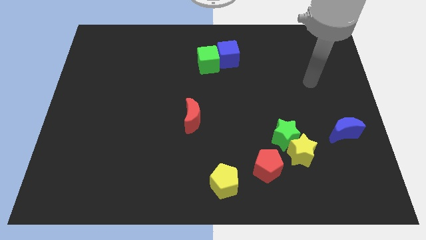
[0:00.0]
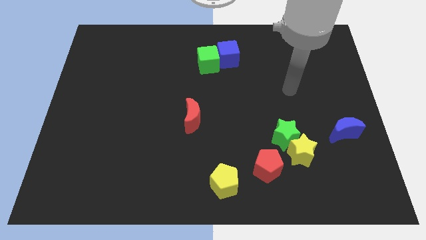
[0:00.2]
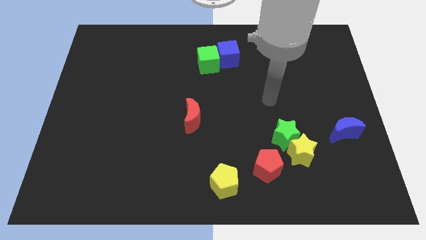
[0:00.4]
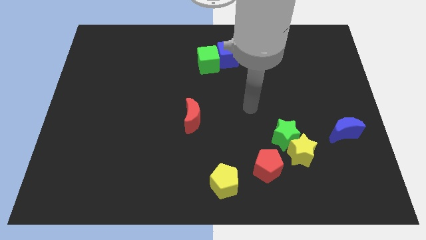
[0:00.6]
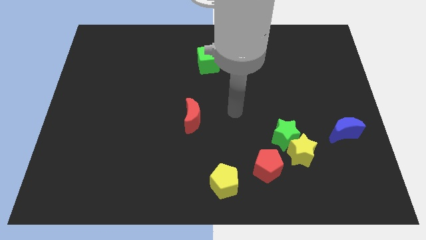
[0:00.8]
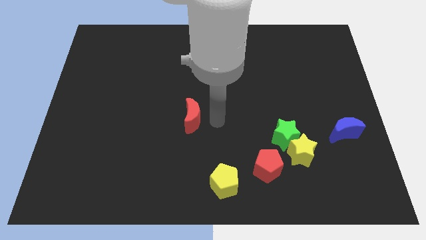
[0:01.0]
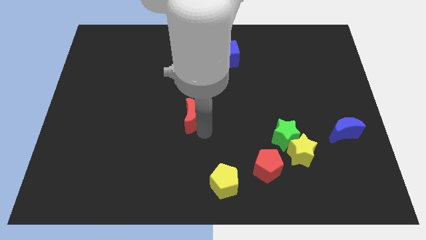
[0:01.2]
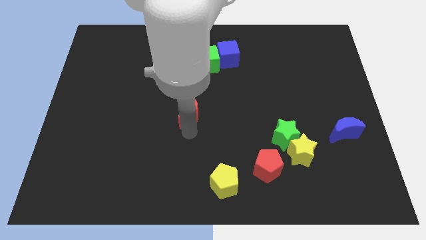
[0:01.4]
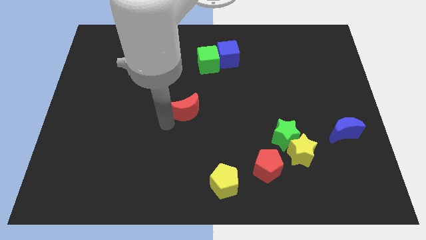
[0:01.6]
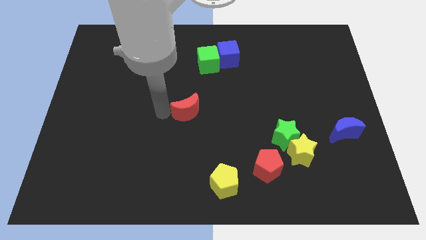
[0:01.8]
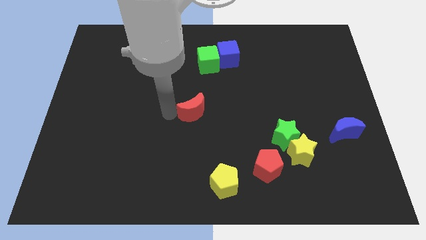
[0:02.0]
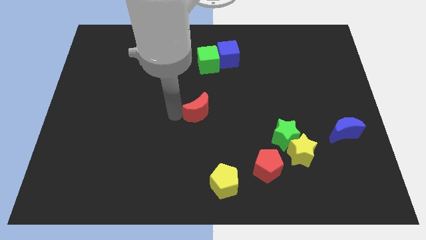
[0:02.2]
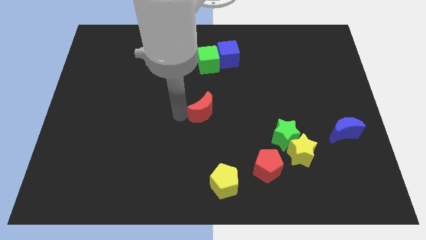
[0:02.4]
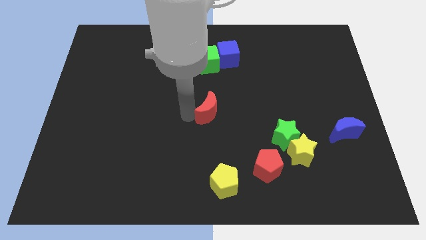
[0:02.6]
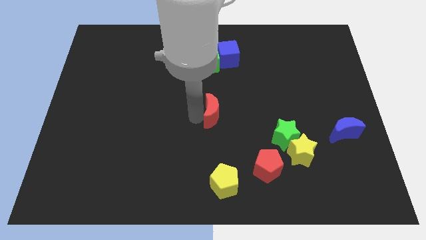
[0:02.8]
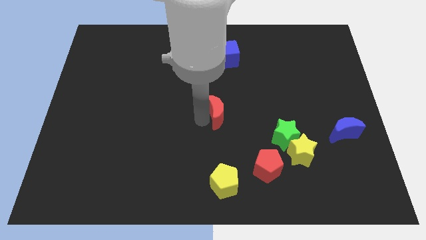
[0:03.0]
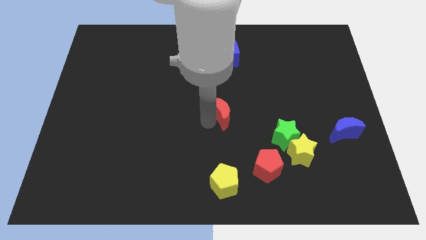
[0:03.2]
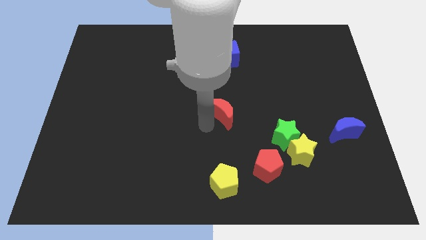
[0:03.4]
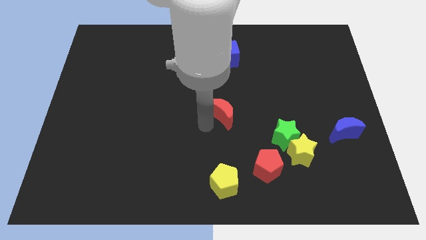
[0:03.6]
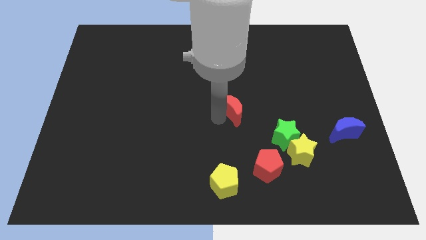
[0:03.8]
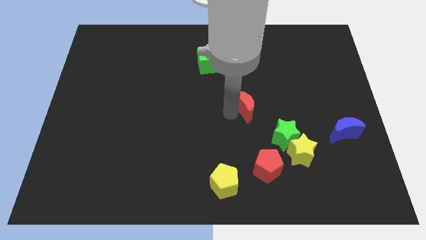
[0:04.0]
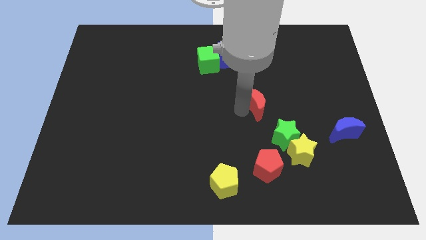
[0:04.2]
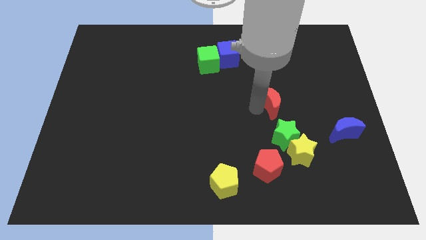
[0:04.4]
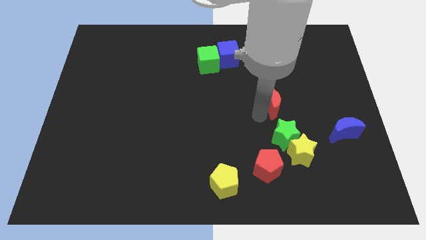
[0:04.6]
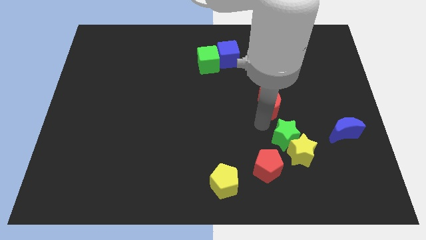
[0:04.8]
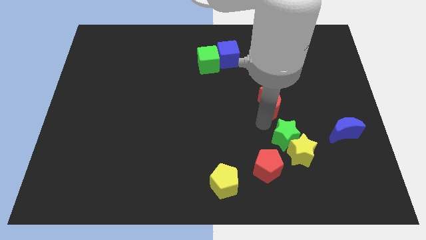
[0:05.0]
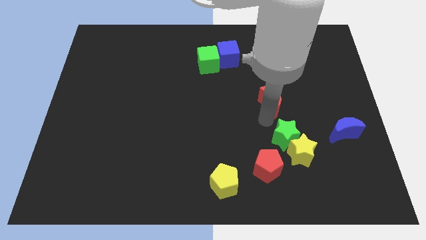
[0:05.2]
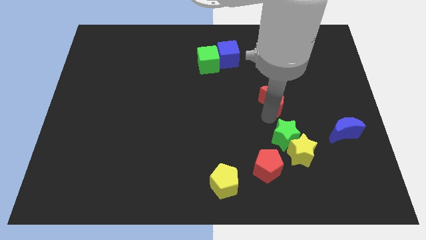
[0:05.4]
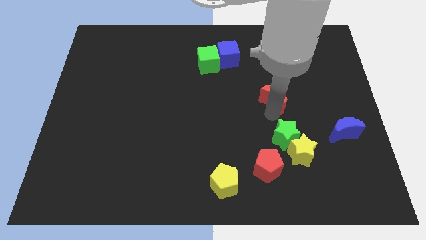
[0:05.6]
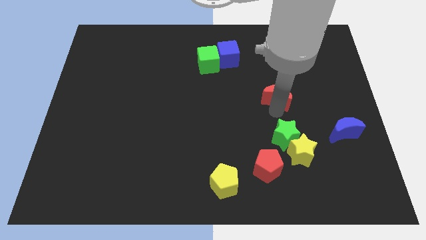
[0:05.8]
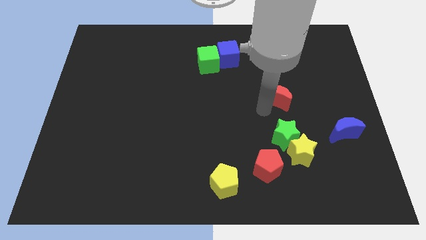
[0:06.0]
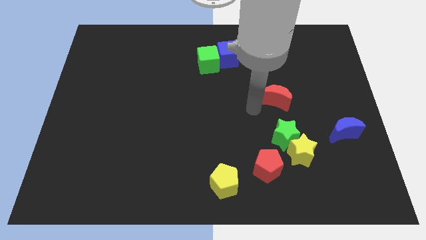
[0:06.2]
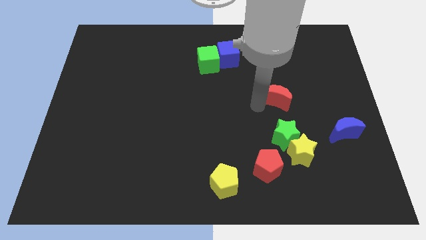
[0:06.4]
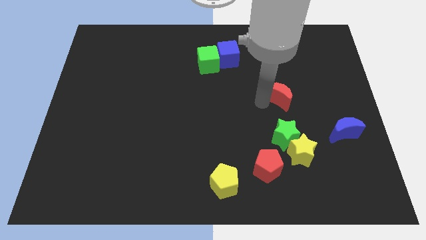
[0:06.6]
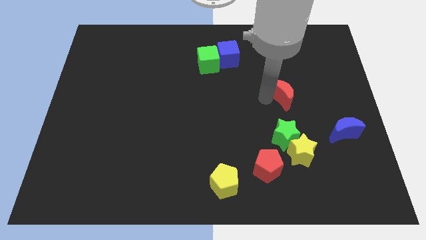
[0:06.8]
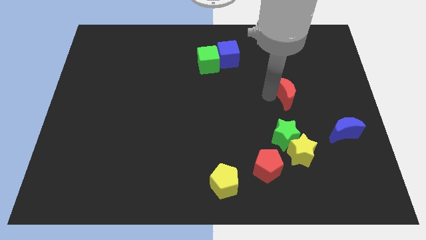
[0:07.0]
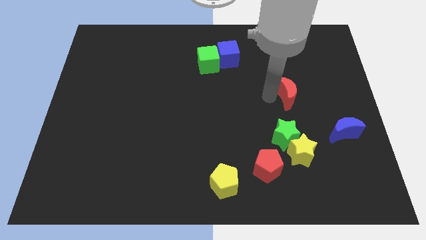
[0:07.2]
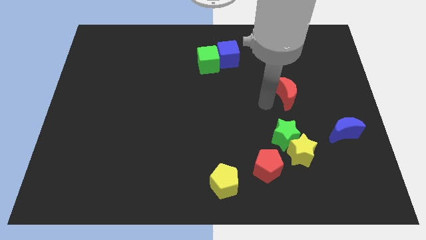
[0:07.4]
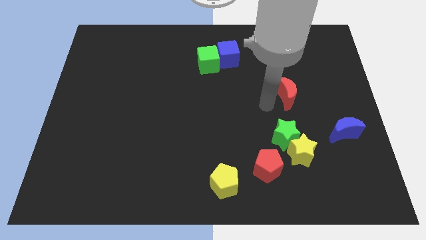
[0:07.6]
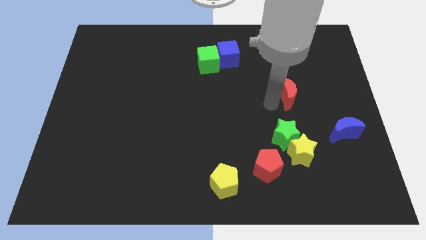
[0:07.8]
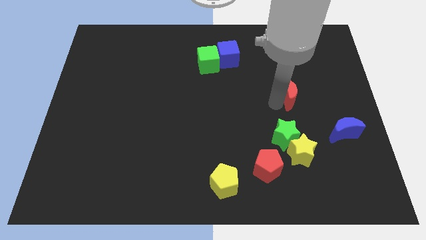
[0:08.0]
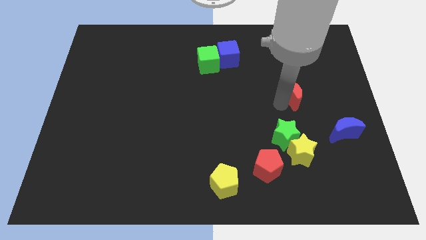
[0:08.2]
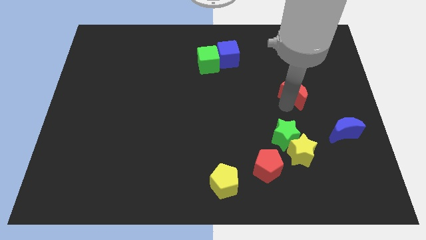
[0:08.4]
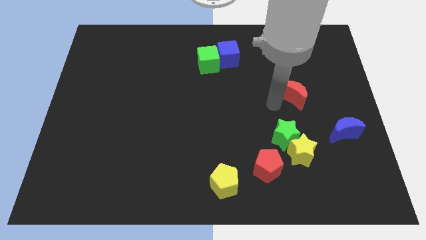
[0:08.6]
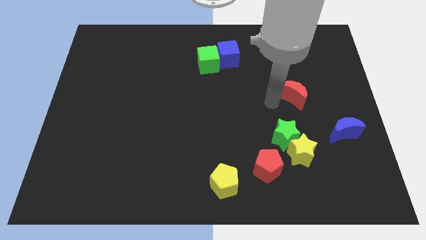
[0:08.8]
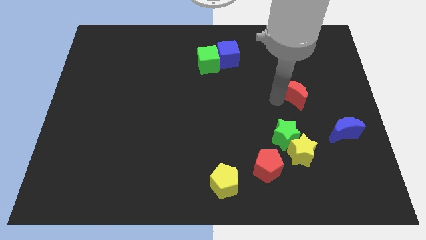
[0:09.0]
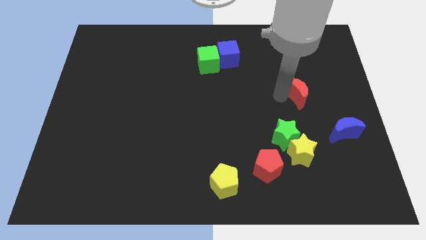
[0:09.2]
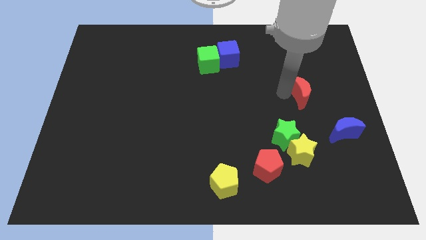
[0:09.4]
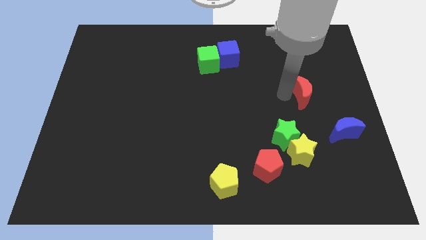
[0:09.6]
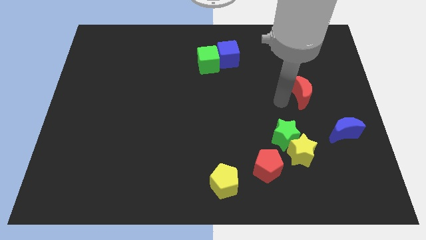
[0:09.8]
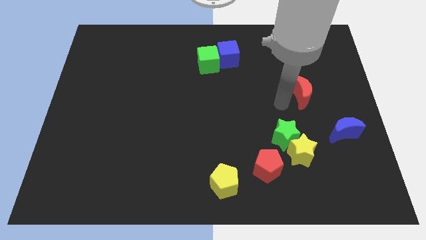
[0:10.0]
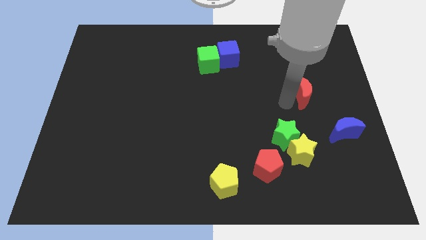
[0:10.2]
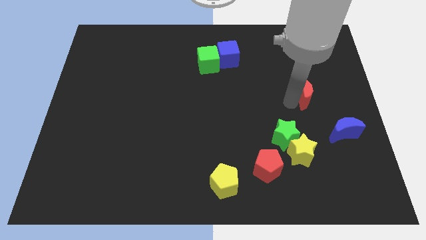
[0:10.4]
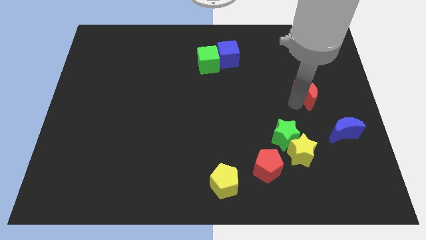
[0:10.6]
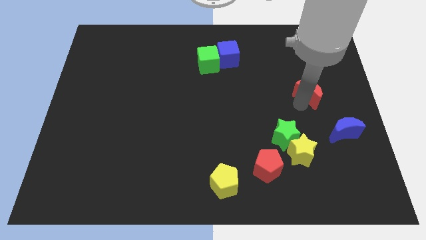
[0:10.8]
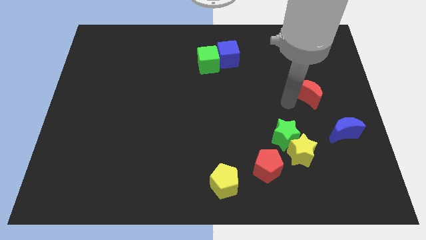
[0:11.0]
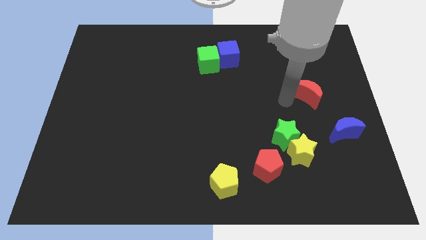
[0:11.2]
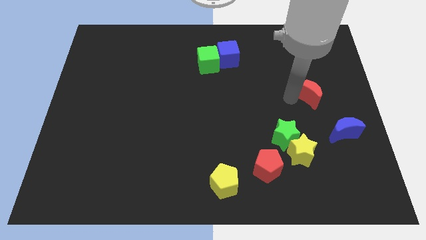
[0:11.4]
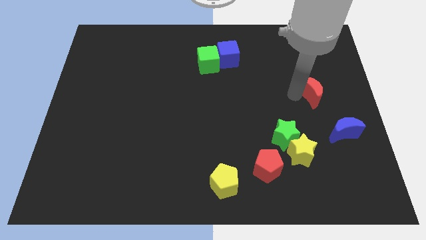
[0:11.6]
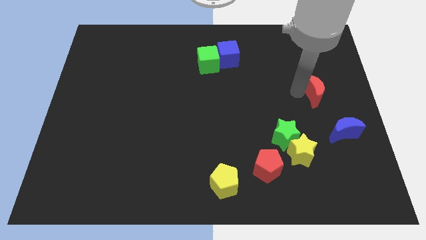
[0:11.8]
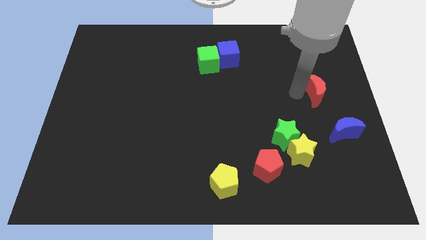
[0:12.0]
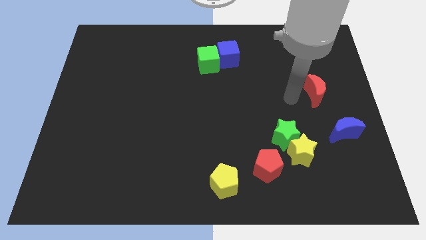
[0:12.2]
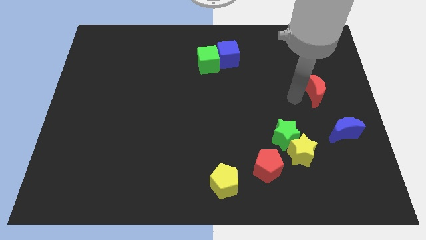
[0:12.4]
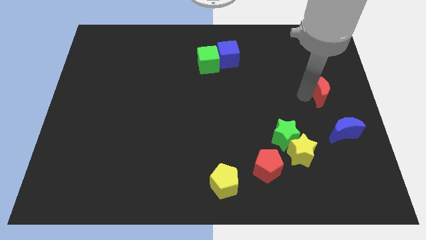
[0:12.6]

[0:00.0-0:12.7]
slide the red moon to the center right

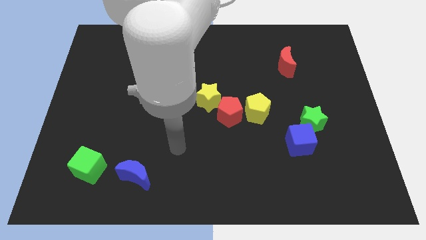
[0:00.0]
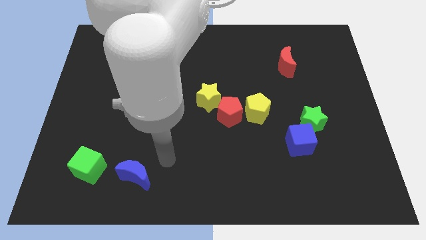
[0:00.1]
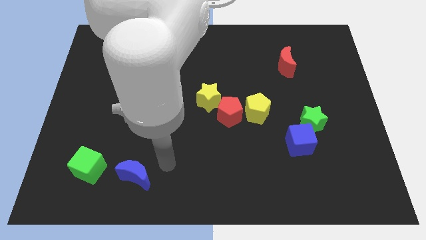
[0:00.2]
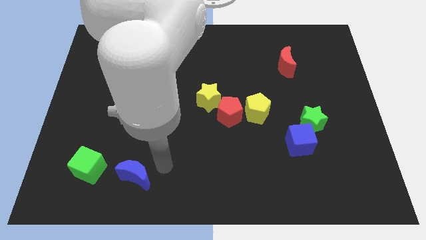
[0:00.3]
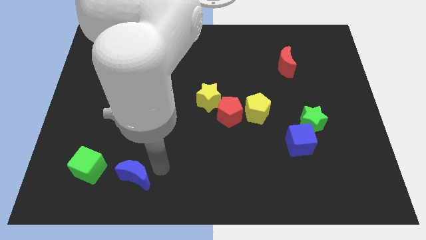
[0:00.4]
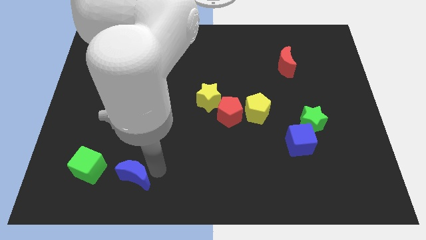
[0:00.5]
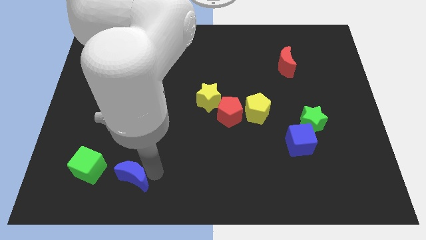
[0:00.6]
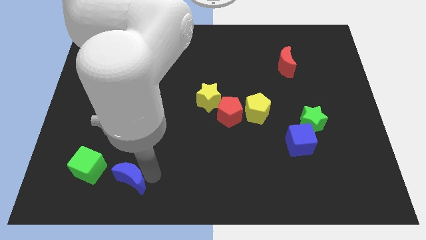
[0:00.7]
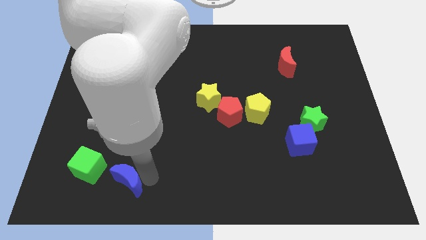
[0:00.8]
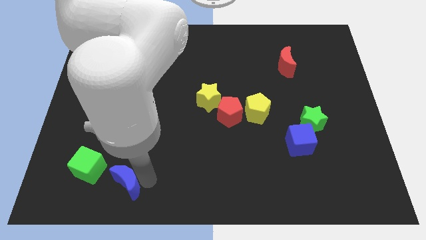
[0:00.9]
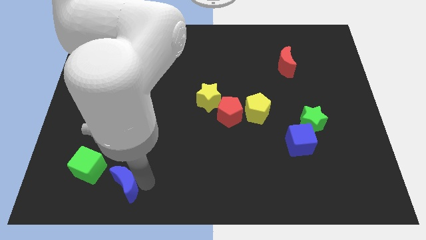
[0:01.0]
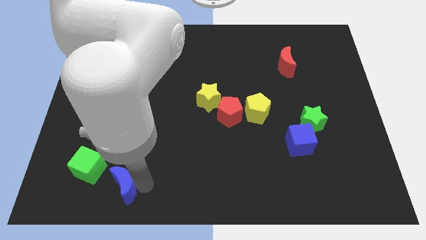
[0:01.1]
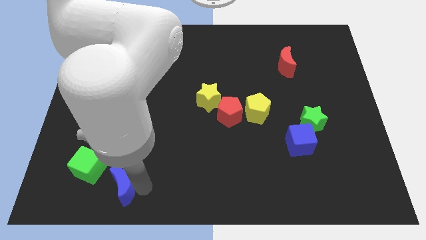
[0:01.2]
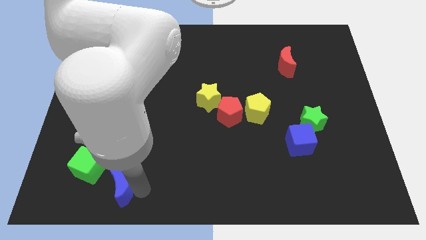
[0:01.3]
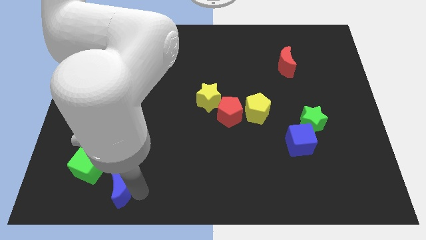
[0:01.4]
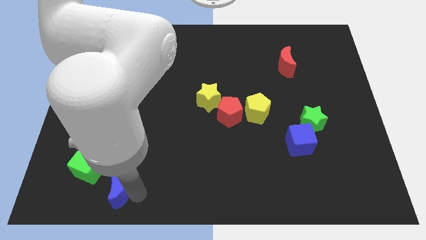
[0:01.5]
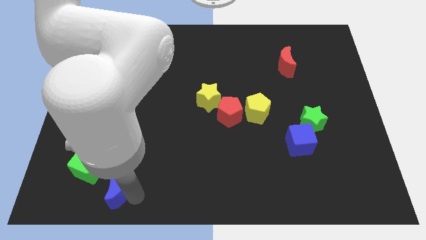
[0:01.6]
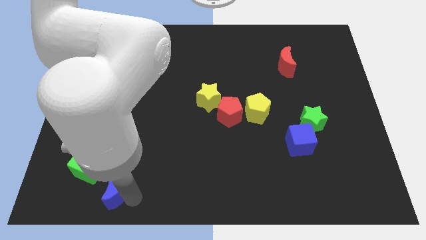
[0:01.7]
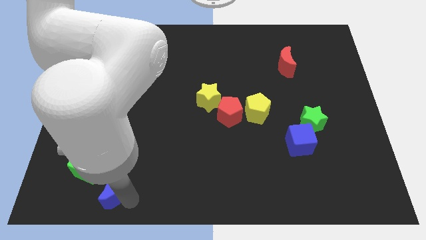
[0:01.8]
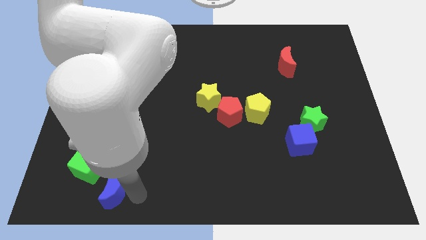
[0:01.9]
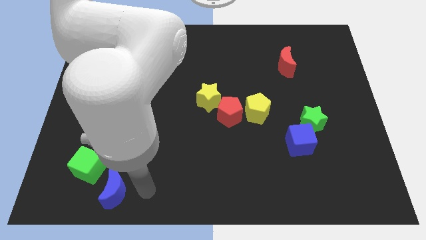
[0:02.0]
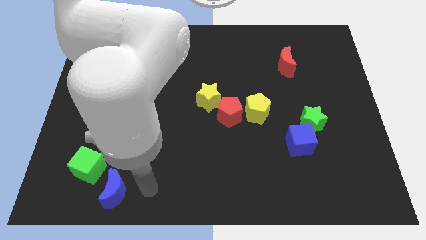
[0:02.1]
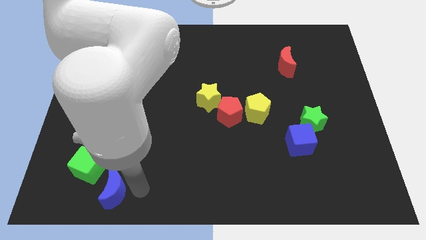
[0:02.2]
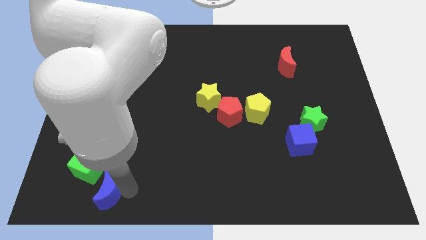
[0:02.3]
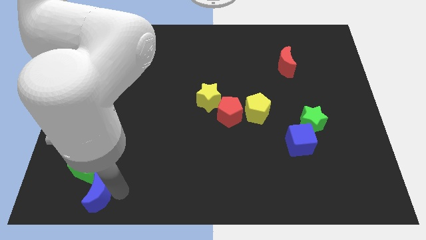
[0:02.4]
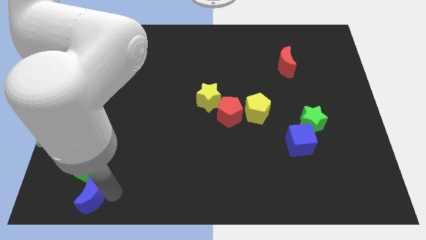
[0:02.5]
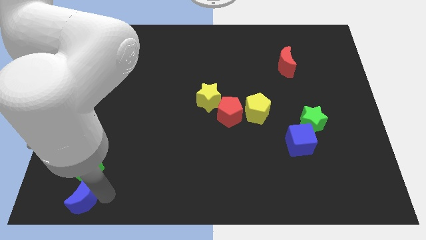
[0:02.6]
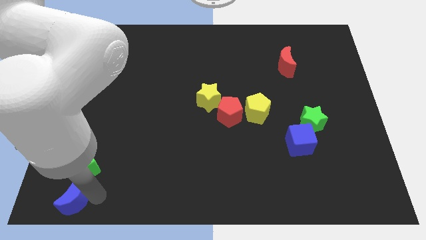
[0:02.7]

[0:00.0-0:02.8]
move the blue moon to the lower left corner
